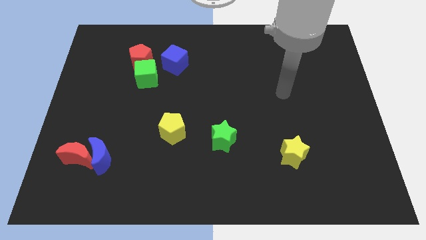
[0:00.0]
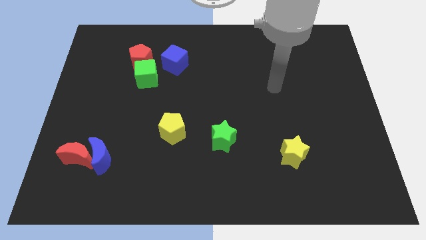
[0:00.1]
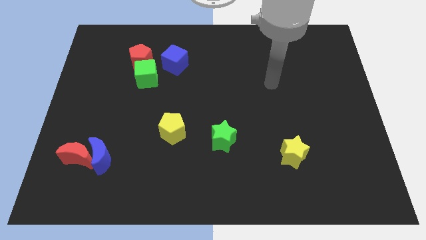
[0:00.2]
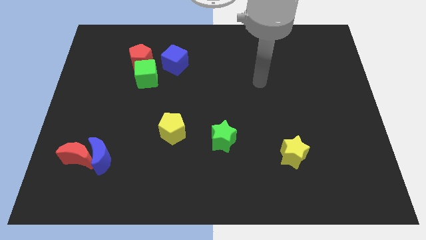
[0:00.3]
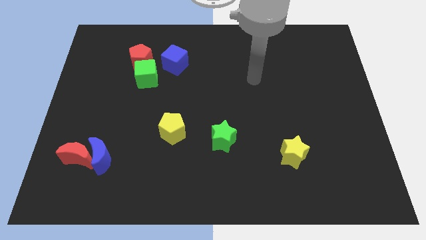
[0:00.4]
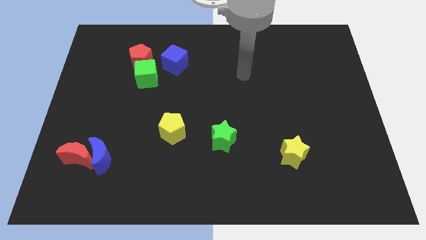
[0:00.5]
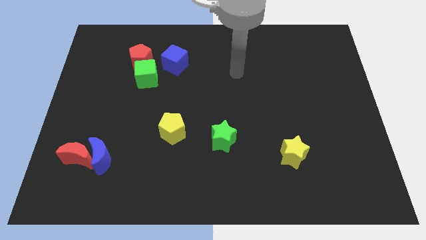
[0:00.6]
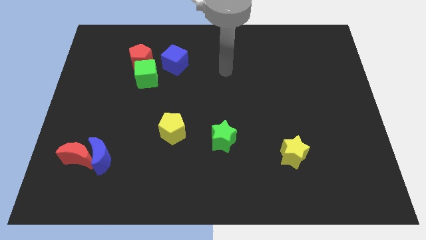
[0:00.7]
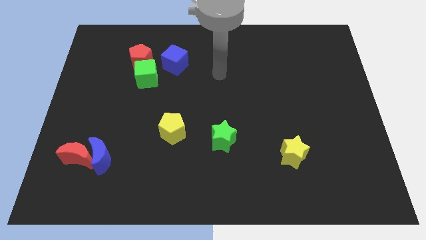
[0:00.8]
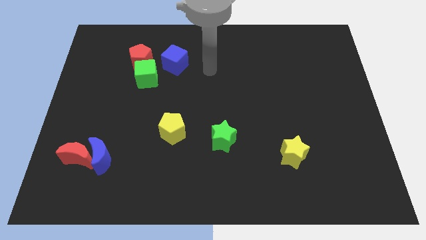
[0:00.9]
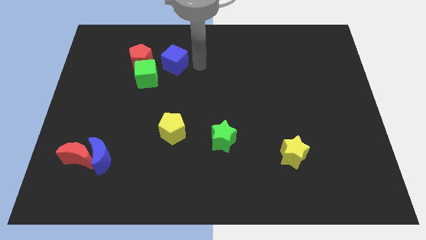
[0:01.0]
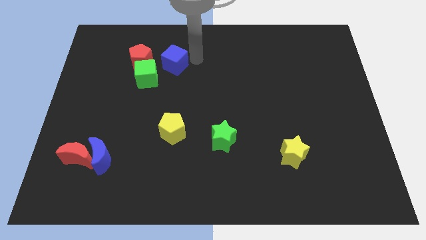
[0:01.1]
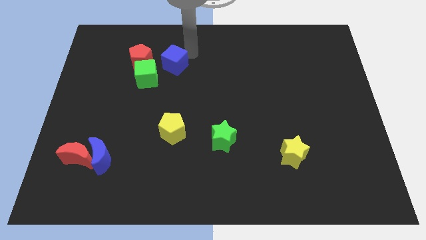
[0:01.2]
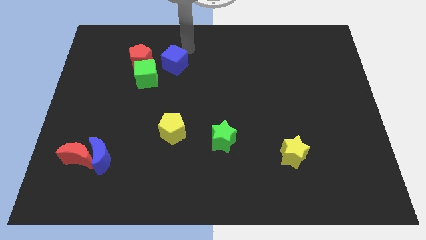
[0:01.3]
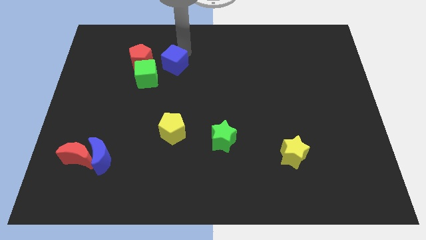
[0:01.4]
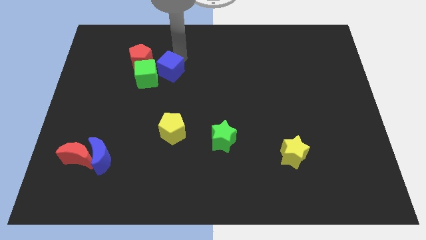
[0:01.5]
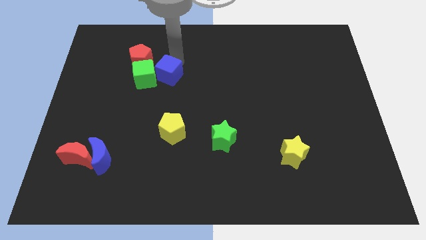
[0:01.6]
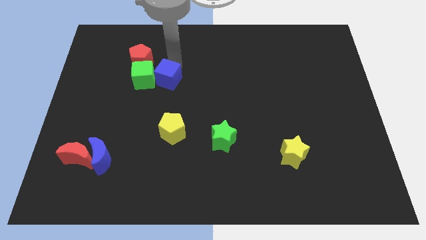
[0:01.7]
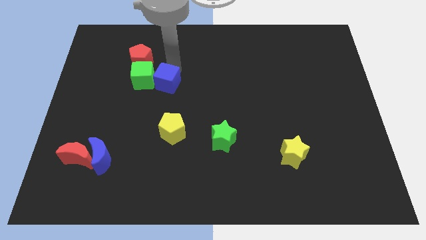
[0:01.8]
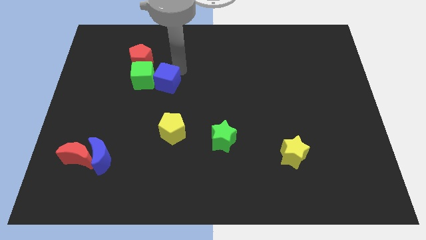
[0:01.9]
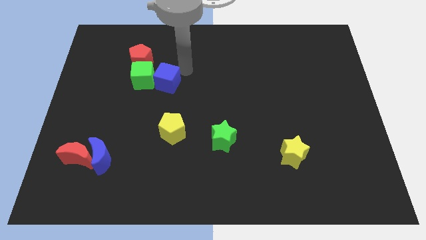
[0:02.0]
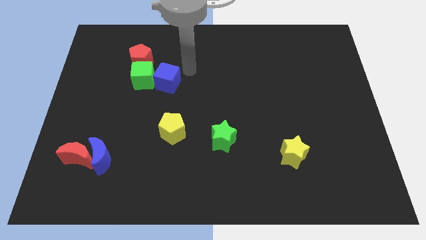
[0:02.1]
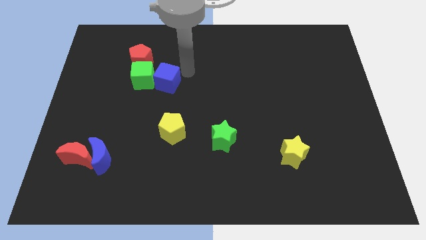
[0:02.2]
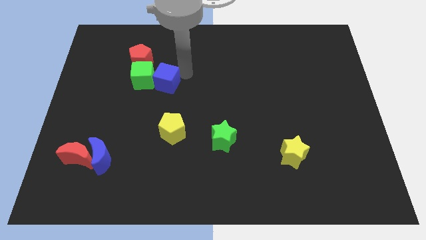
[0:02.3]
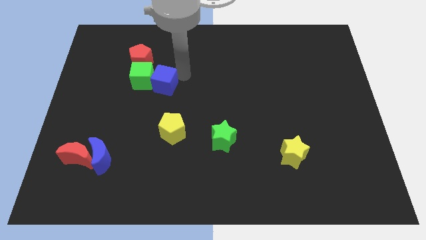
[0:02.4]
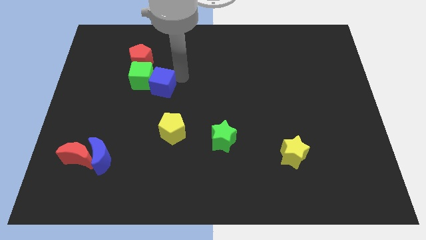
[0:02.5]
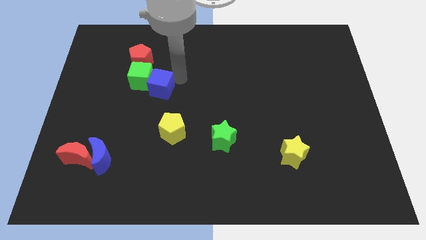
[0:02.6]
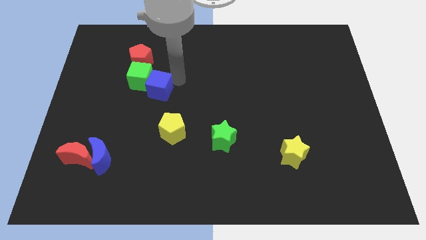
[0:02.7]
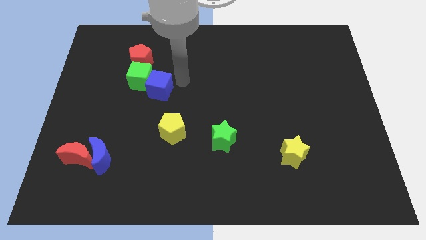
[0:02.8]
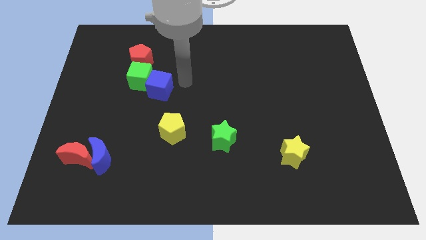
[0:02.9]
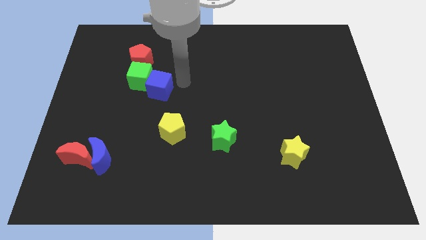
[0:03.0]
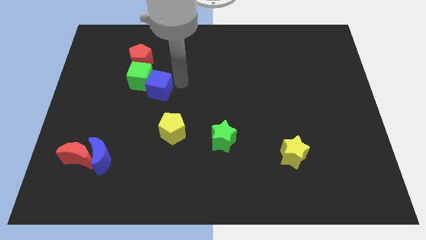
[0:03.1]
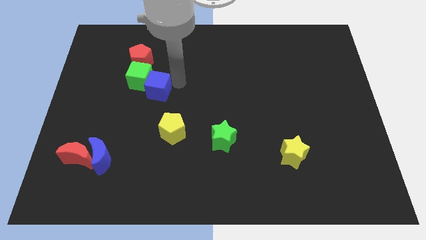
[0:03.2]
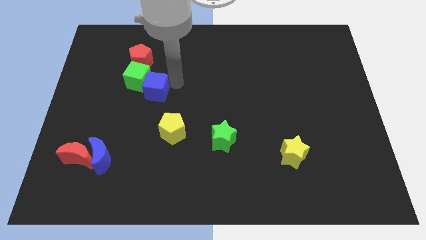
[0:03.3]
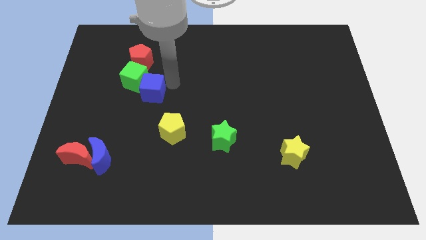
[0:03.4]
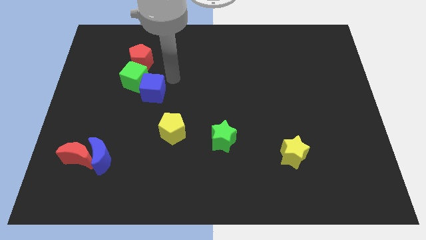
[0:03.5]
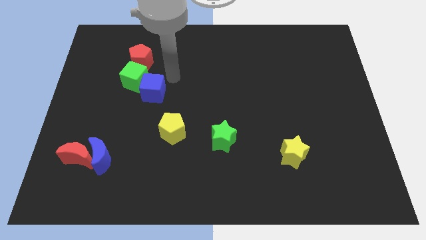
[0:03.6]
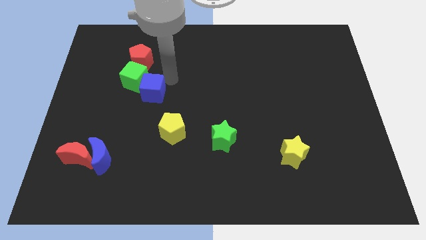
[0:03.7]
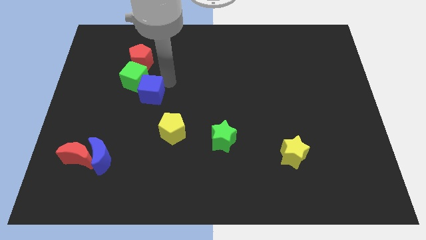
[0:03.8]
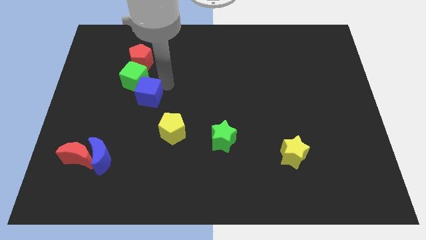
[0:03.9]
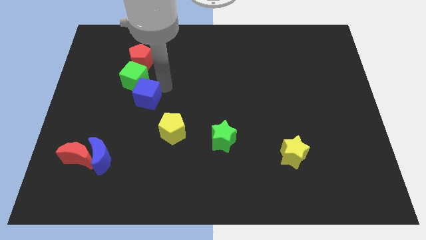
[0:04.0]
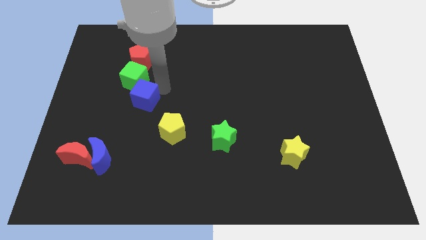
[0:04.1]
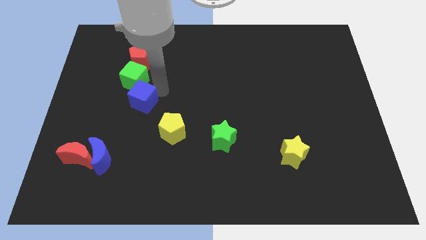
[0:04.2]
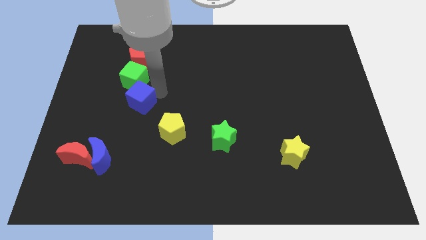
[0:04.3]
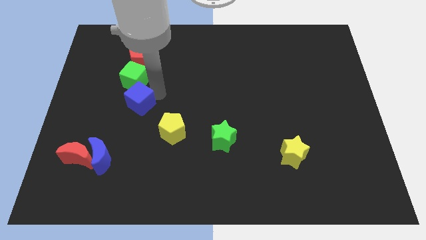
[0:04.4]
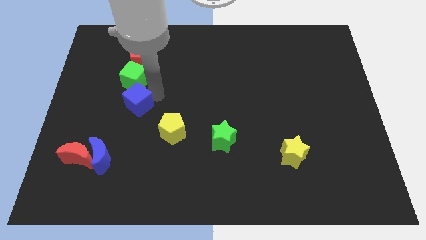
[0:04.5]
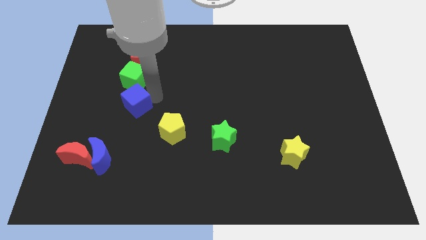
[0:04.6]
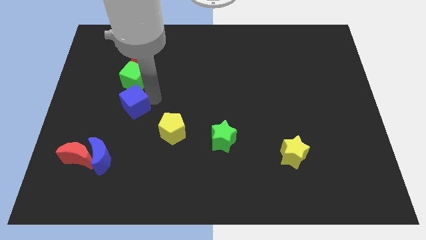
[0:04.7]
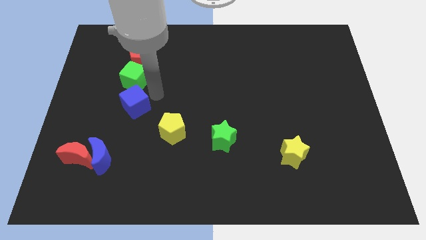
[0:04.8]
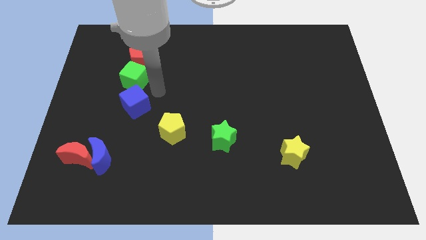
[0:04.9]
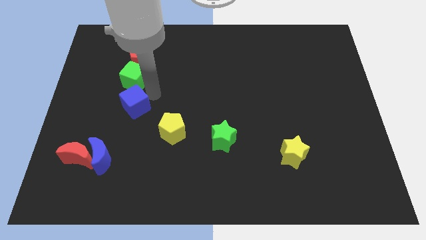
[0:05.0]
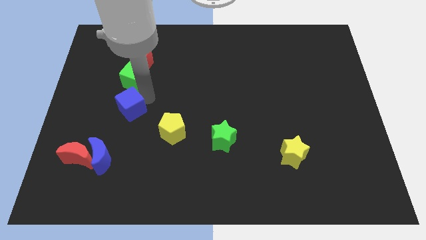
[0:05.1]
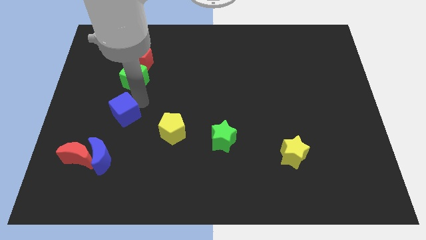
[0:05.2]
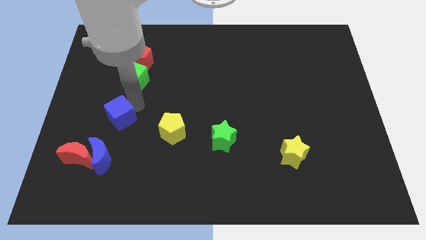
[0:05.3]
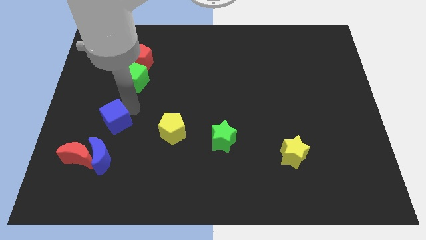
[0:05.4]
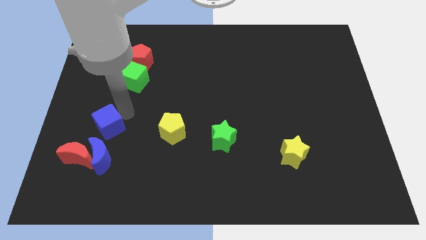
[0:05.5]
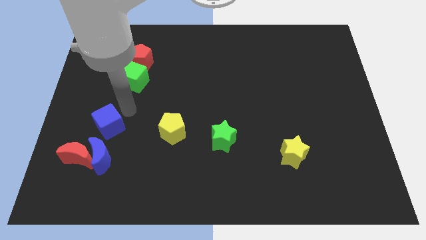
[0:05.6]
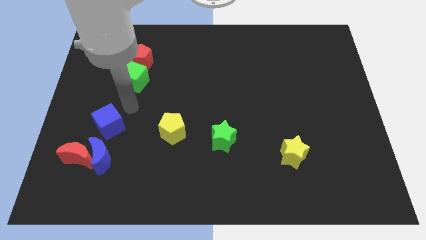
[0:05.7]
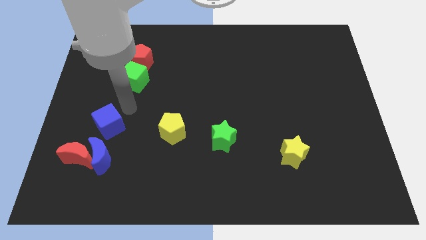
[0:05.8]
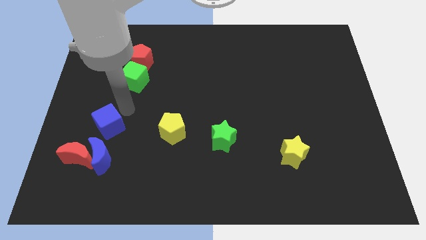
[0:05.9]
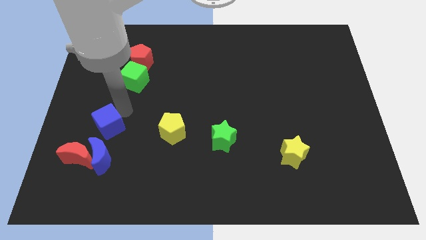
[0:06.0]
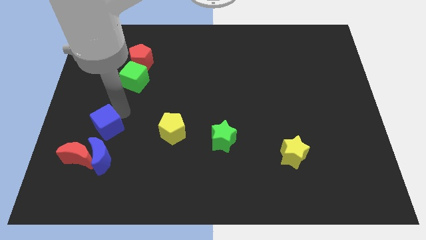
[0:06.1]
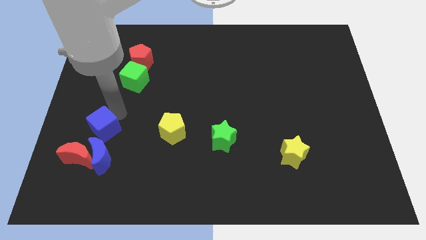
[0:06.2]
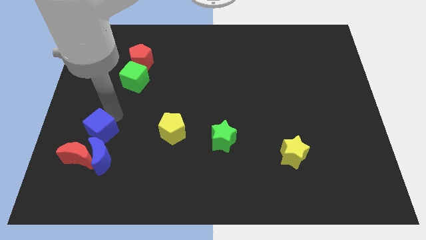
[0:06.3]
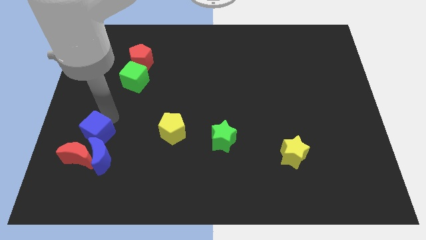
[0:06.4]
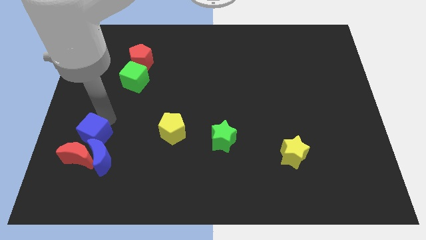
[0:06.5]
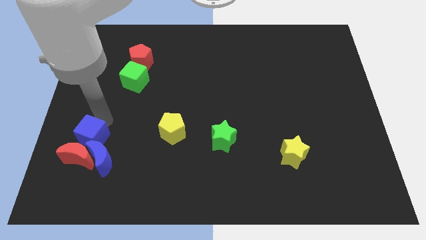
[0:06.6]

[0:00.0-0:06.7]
put the blue cube to the red moon

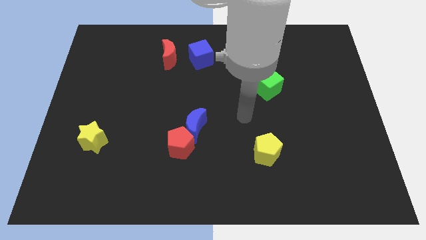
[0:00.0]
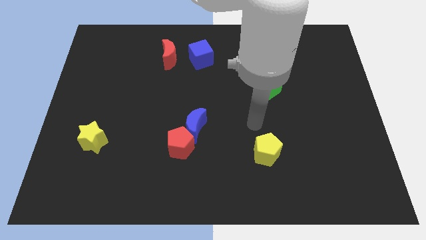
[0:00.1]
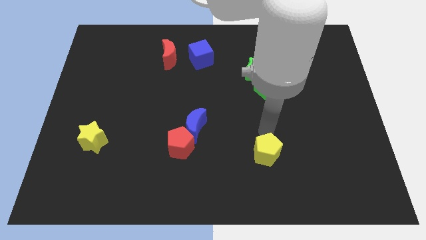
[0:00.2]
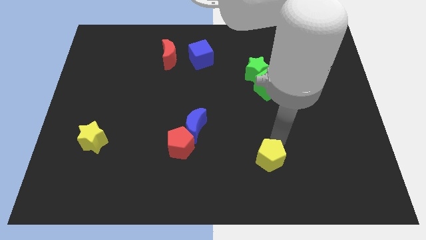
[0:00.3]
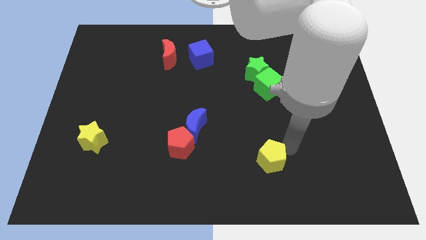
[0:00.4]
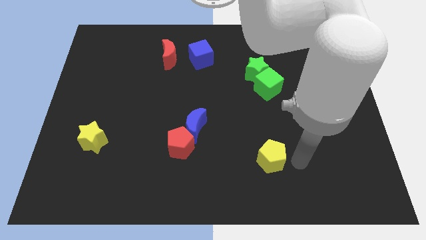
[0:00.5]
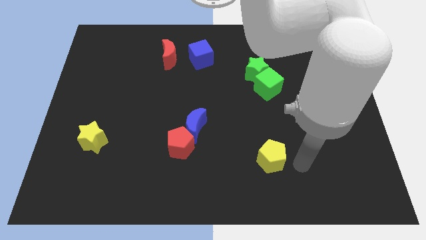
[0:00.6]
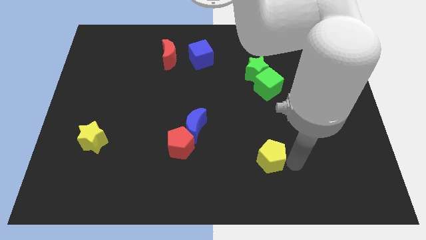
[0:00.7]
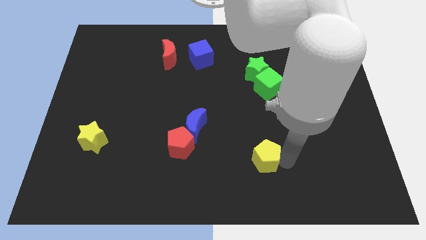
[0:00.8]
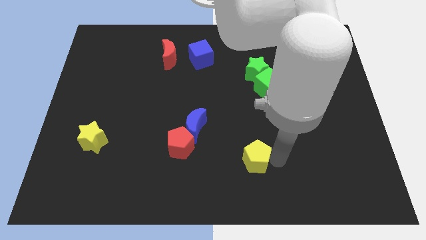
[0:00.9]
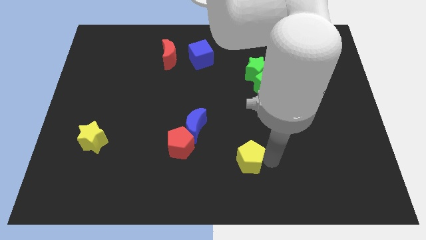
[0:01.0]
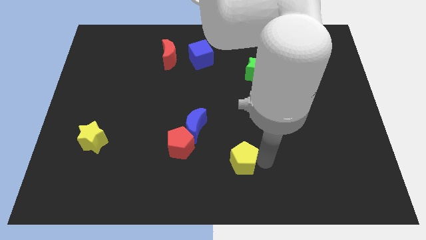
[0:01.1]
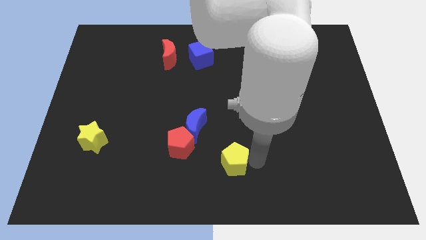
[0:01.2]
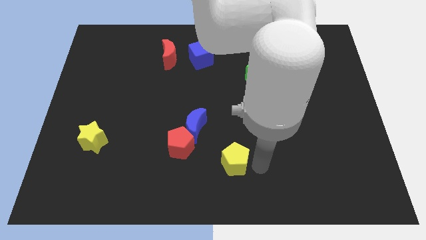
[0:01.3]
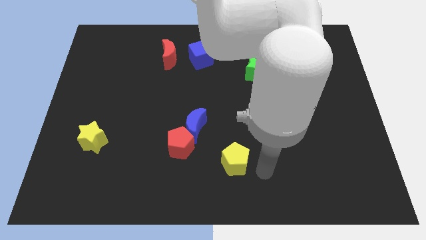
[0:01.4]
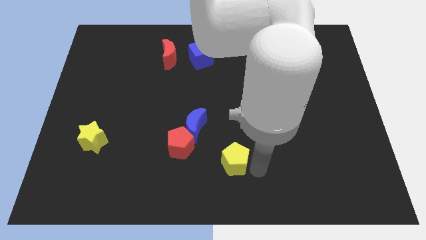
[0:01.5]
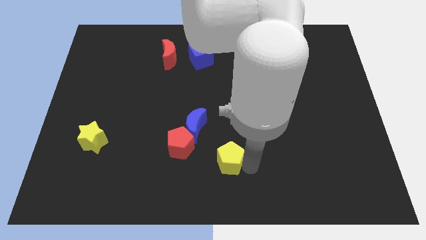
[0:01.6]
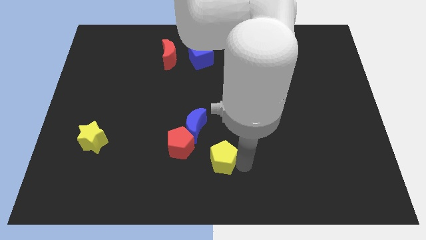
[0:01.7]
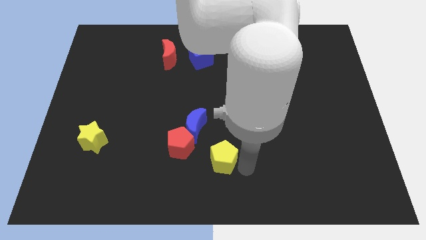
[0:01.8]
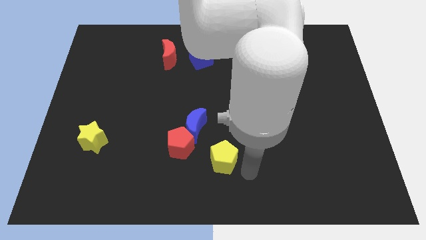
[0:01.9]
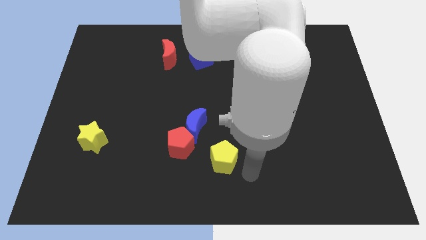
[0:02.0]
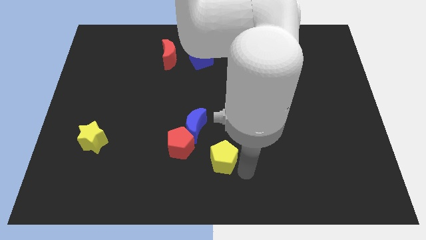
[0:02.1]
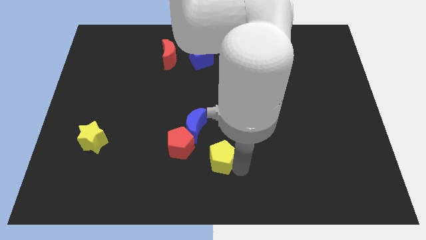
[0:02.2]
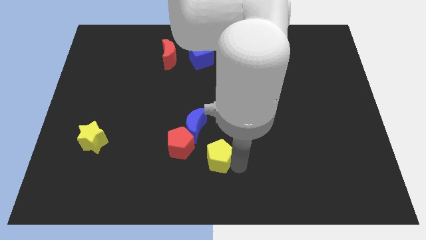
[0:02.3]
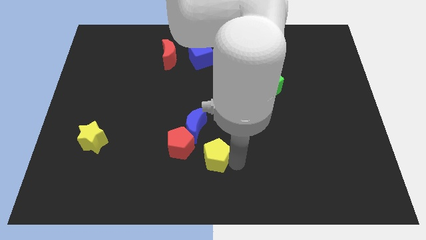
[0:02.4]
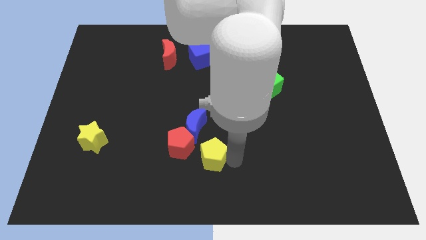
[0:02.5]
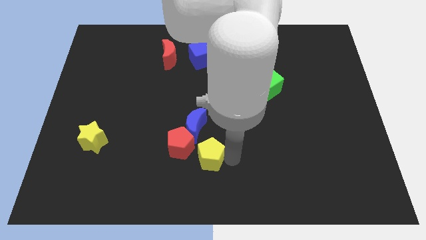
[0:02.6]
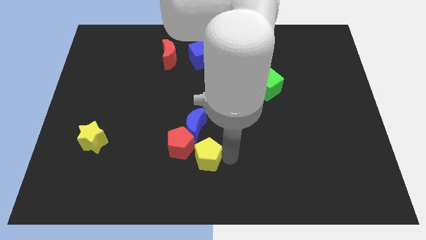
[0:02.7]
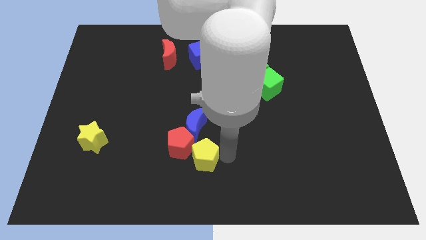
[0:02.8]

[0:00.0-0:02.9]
slide the yellow pentagon towards the red pentagon
